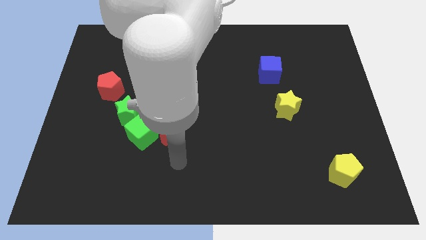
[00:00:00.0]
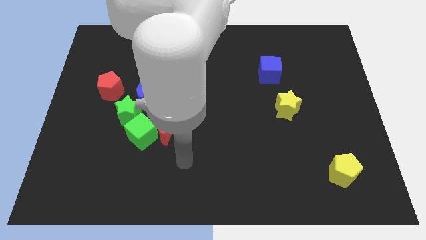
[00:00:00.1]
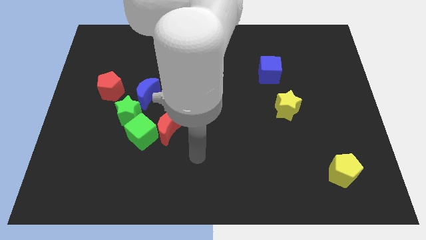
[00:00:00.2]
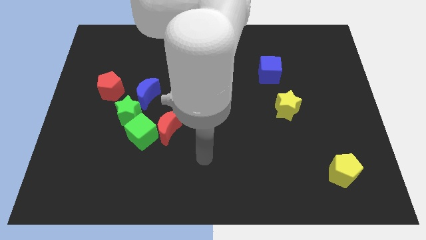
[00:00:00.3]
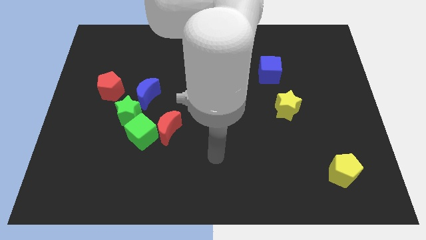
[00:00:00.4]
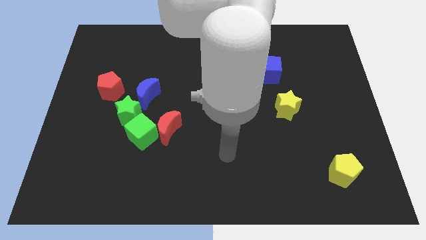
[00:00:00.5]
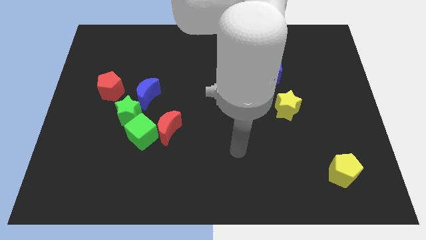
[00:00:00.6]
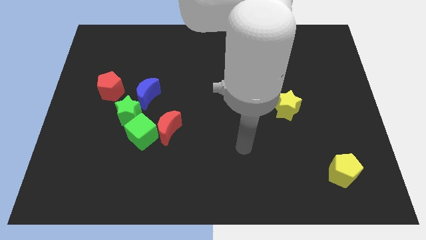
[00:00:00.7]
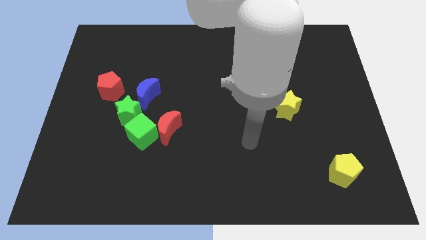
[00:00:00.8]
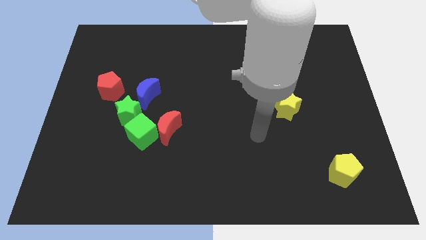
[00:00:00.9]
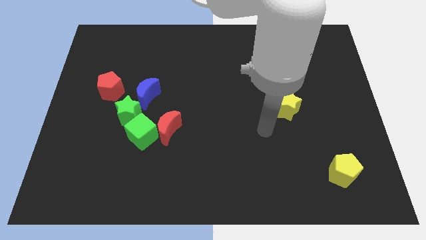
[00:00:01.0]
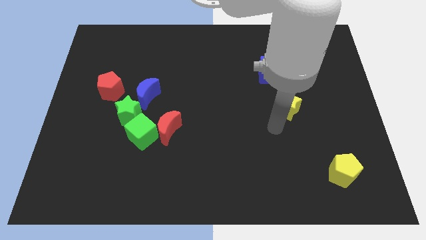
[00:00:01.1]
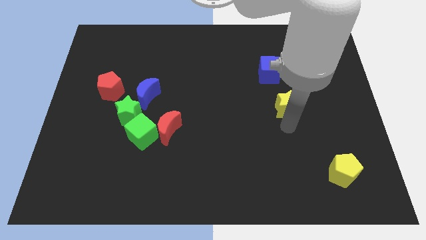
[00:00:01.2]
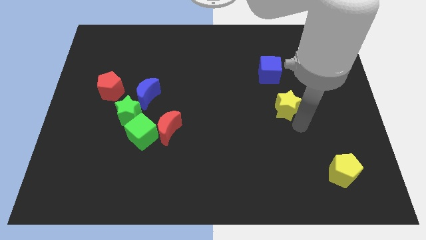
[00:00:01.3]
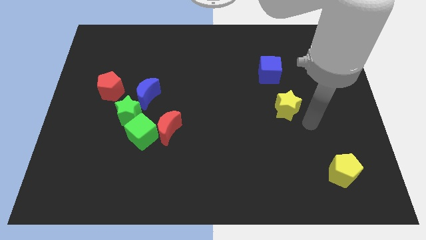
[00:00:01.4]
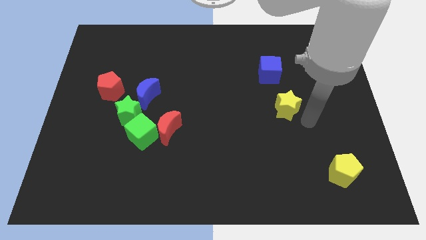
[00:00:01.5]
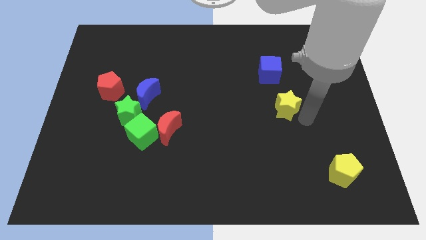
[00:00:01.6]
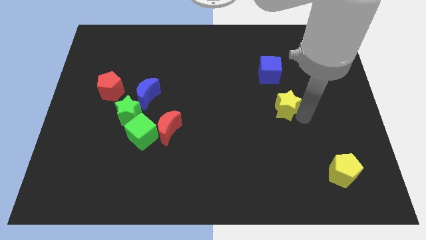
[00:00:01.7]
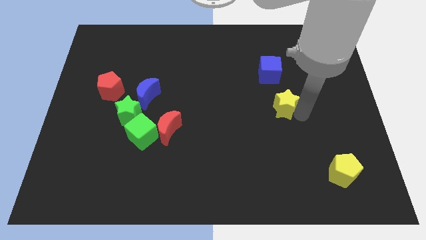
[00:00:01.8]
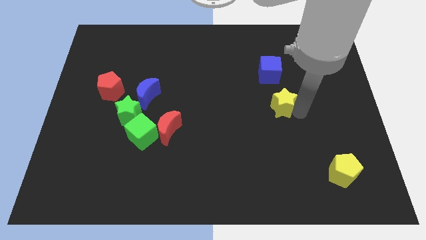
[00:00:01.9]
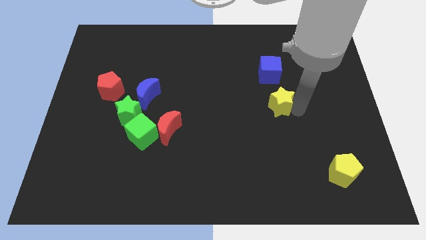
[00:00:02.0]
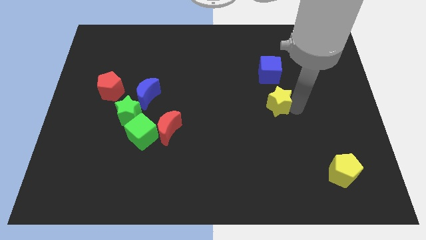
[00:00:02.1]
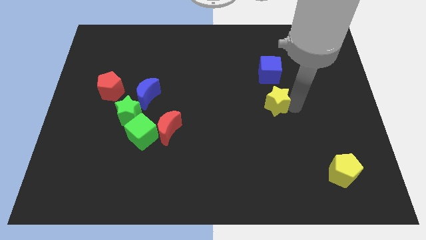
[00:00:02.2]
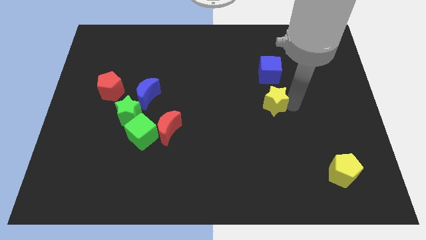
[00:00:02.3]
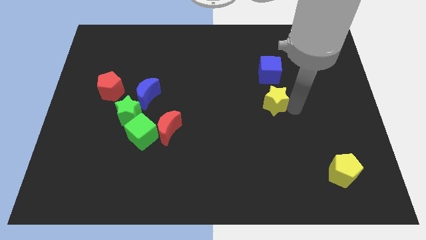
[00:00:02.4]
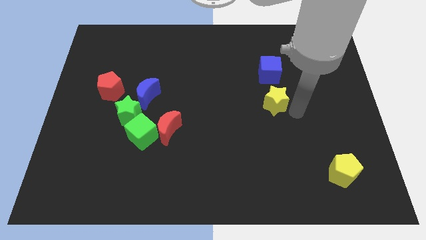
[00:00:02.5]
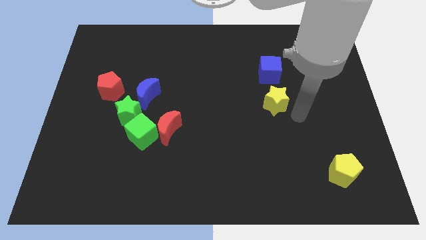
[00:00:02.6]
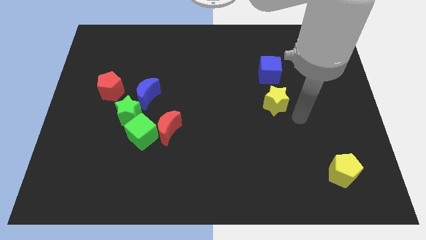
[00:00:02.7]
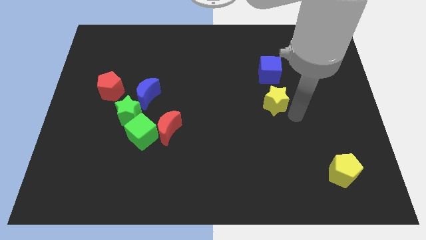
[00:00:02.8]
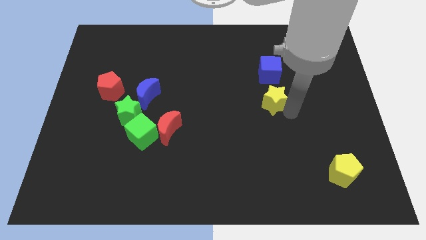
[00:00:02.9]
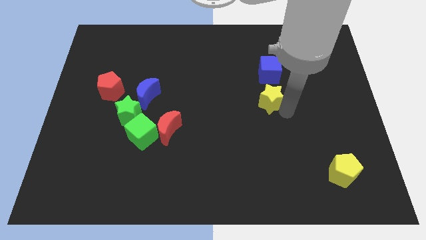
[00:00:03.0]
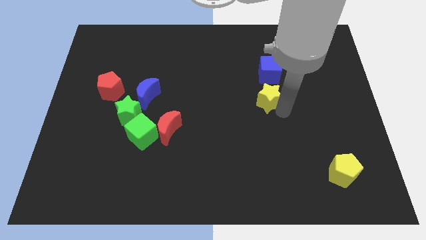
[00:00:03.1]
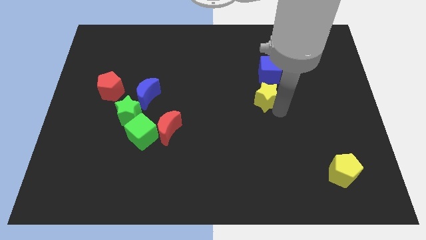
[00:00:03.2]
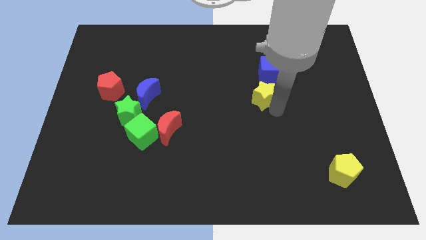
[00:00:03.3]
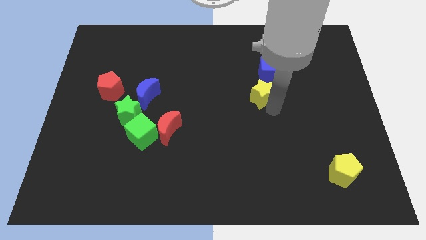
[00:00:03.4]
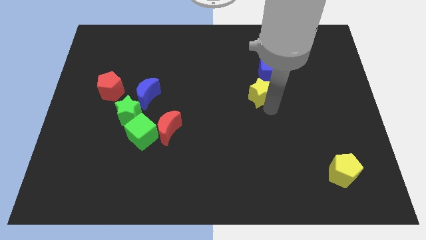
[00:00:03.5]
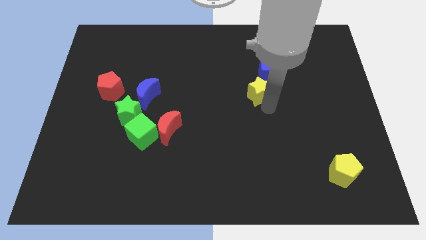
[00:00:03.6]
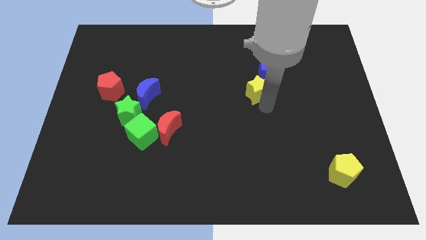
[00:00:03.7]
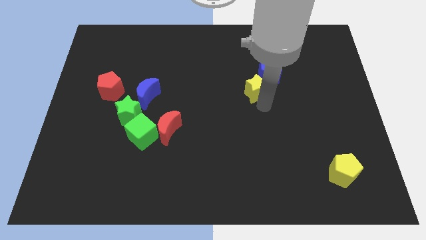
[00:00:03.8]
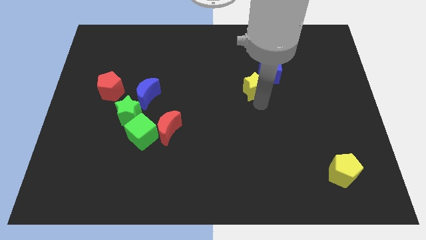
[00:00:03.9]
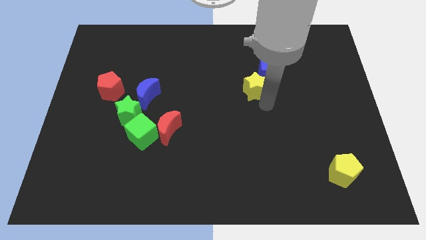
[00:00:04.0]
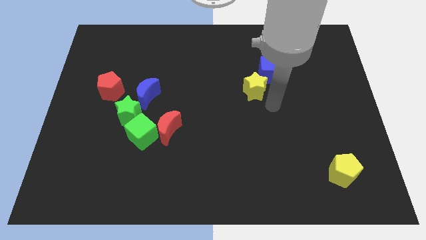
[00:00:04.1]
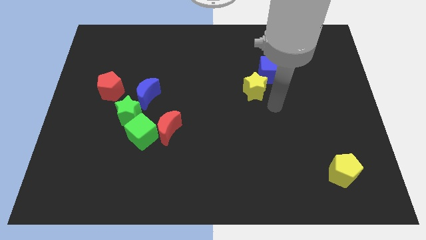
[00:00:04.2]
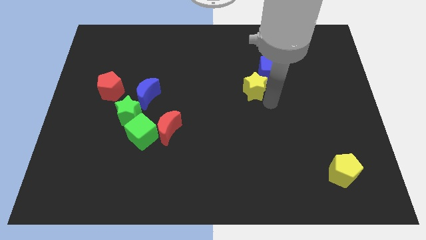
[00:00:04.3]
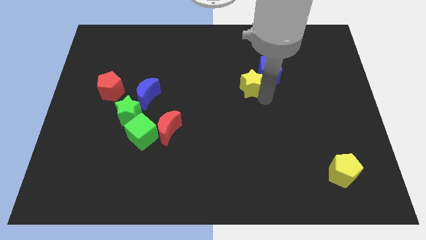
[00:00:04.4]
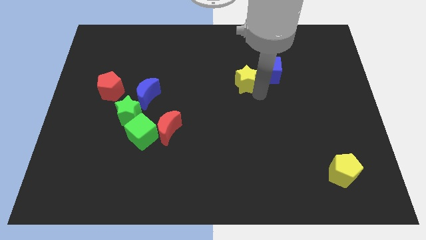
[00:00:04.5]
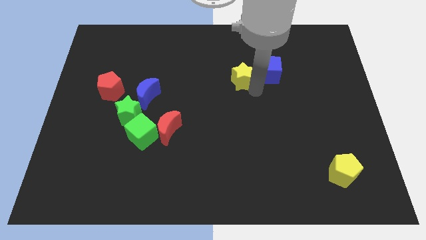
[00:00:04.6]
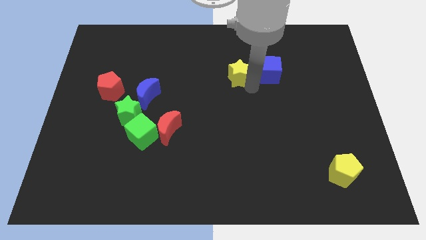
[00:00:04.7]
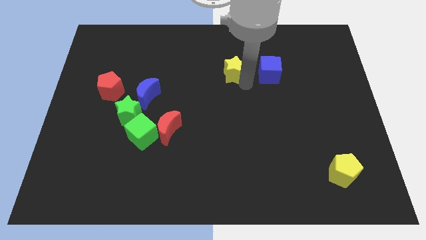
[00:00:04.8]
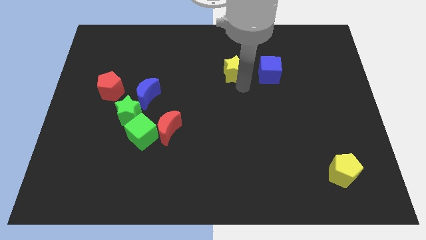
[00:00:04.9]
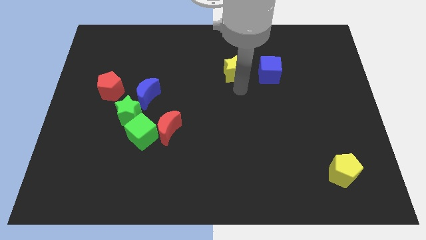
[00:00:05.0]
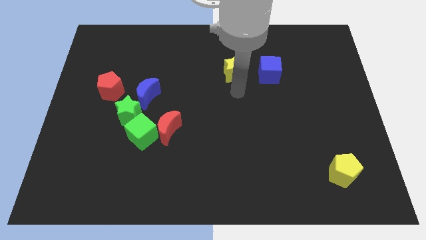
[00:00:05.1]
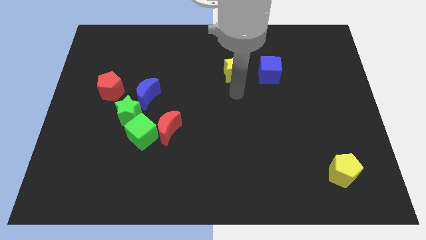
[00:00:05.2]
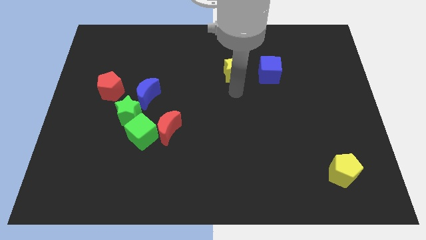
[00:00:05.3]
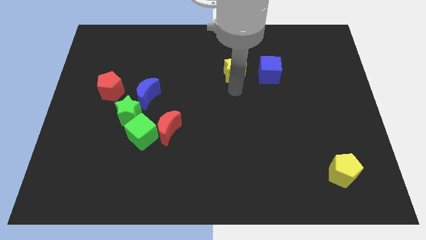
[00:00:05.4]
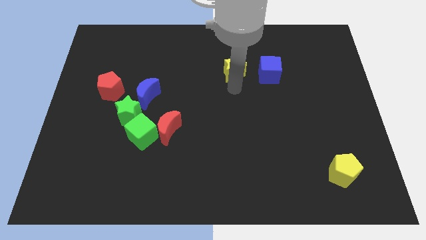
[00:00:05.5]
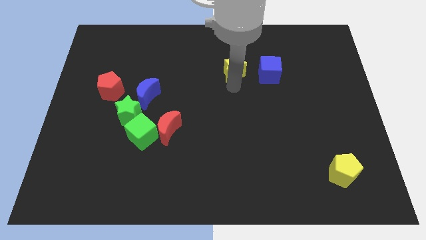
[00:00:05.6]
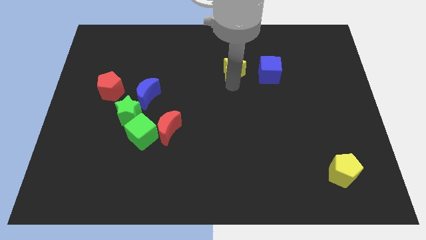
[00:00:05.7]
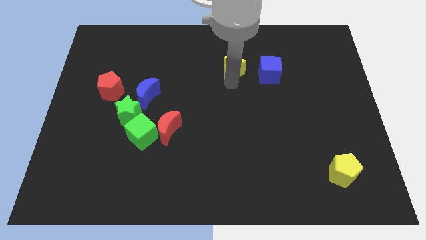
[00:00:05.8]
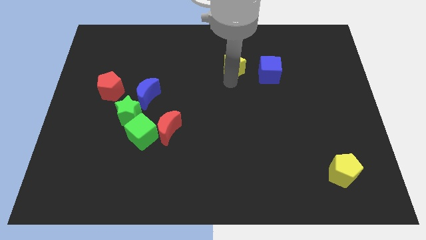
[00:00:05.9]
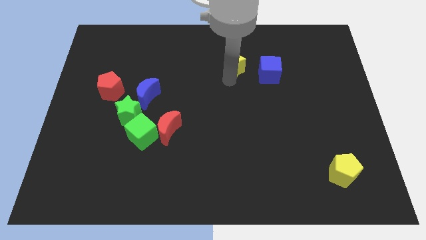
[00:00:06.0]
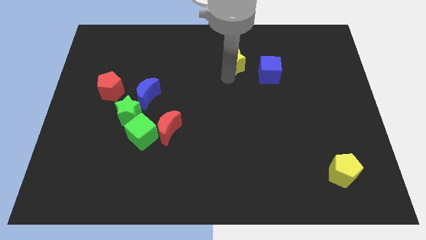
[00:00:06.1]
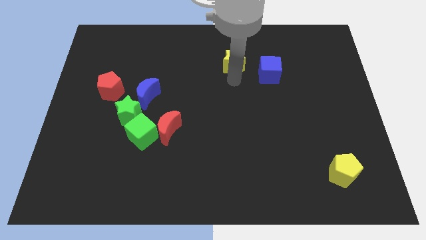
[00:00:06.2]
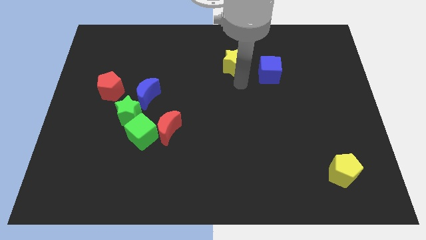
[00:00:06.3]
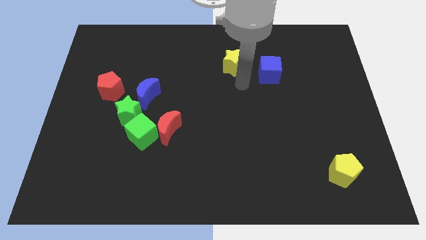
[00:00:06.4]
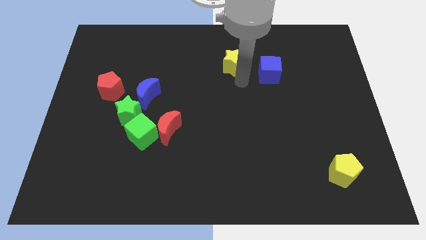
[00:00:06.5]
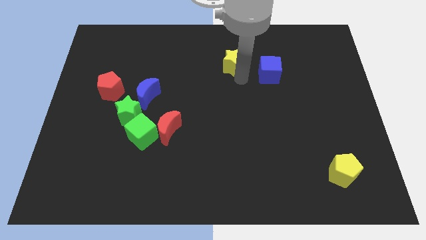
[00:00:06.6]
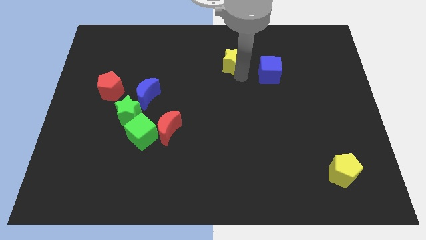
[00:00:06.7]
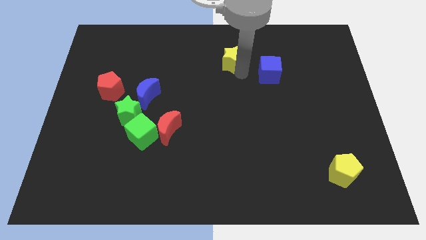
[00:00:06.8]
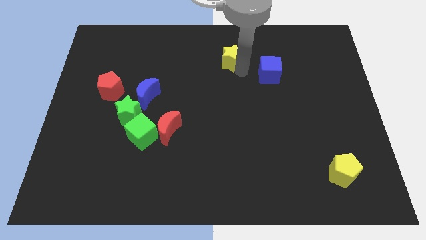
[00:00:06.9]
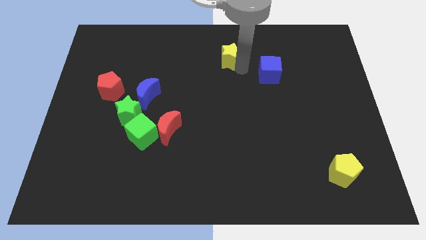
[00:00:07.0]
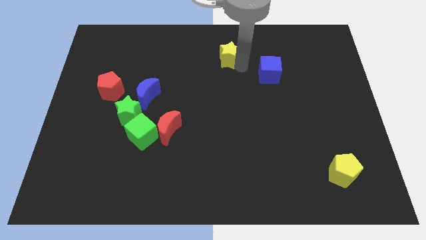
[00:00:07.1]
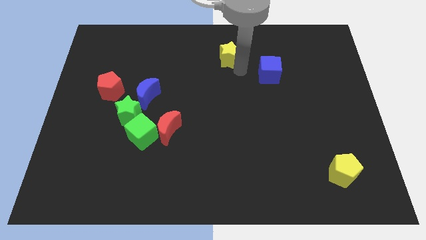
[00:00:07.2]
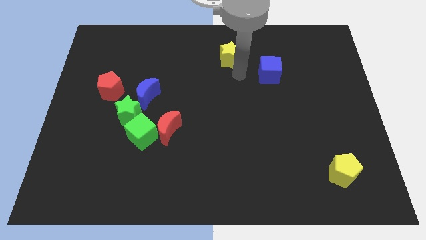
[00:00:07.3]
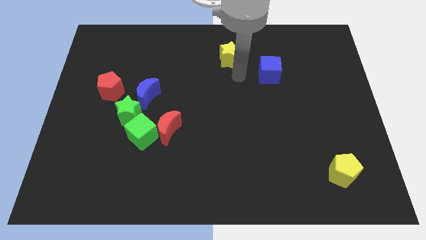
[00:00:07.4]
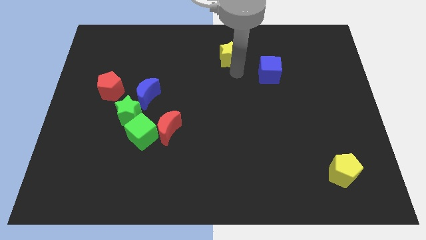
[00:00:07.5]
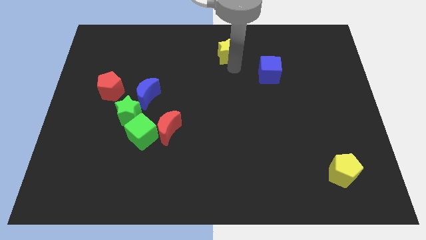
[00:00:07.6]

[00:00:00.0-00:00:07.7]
put the yellow star to the top
